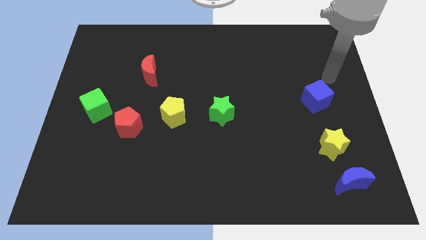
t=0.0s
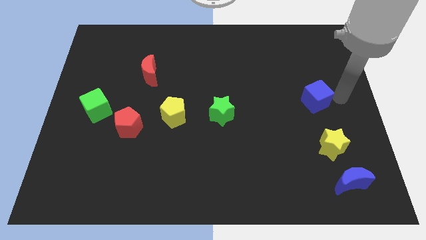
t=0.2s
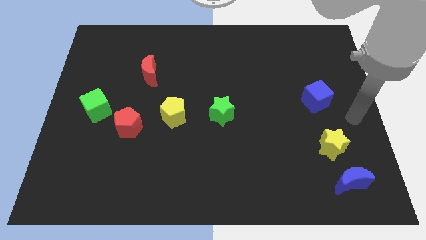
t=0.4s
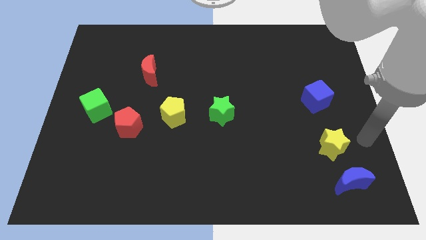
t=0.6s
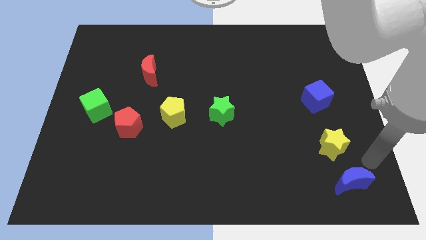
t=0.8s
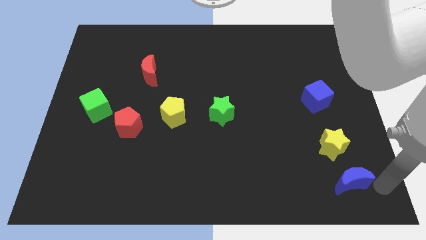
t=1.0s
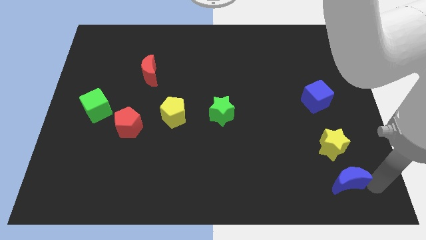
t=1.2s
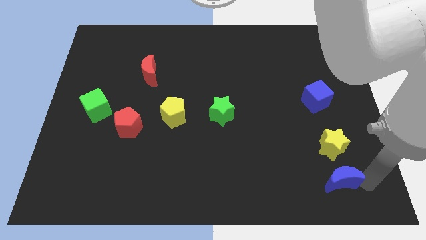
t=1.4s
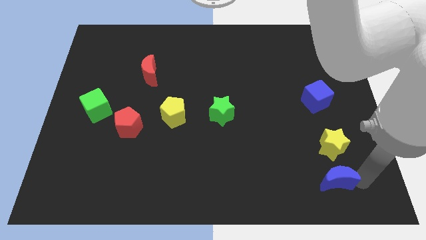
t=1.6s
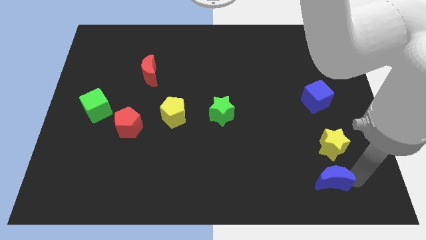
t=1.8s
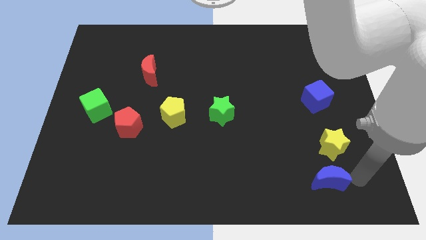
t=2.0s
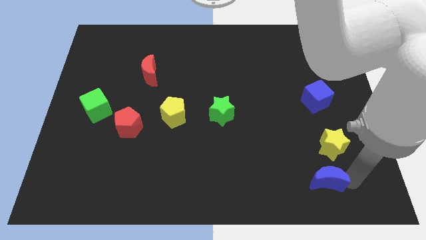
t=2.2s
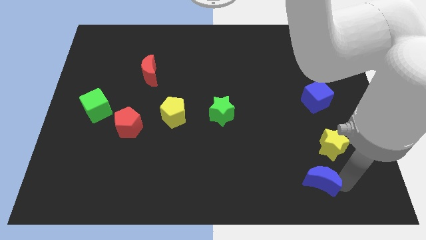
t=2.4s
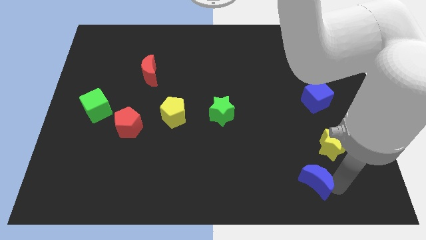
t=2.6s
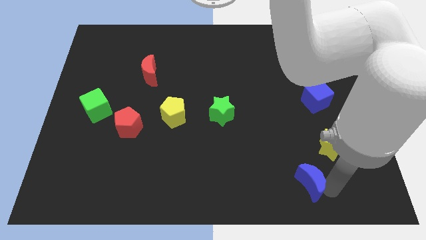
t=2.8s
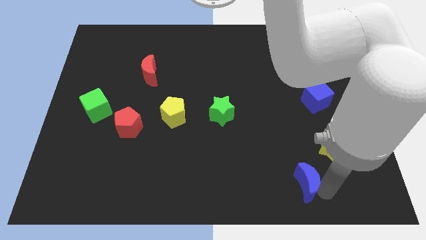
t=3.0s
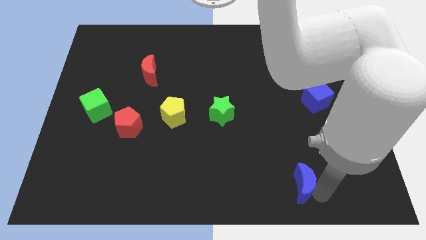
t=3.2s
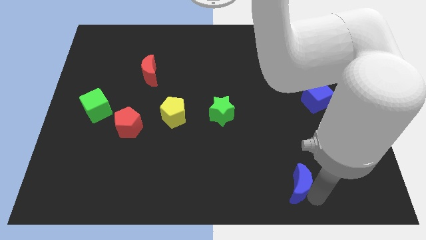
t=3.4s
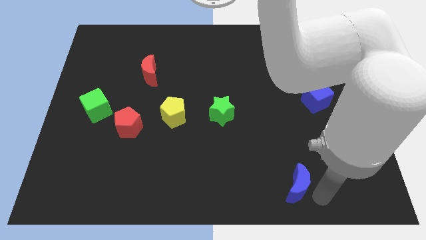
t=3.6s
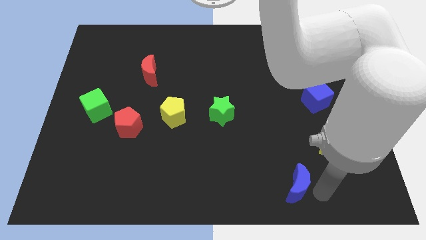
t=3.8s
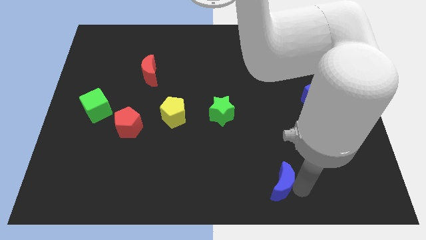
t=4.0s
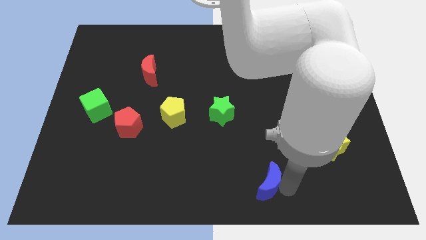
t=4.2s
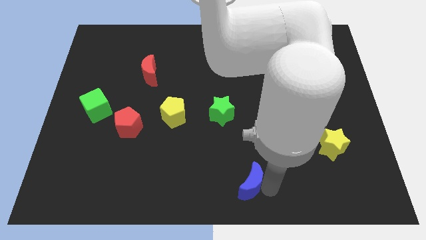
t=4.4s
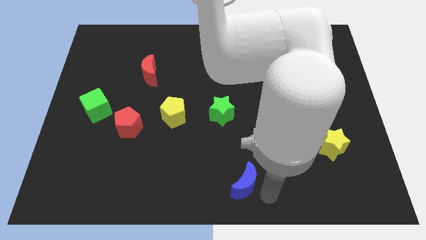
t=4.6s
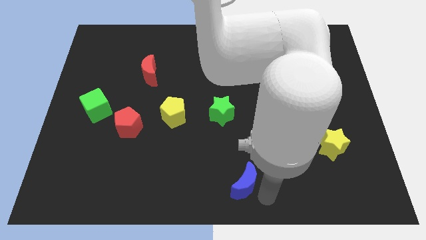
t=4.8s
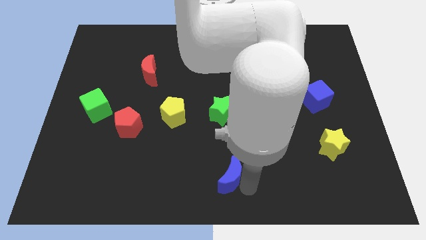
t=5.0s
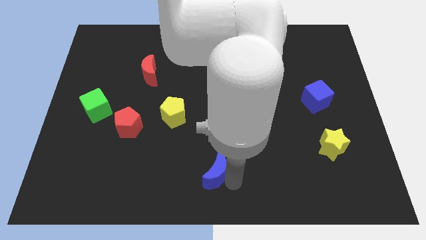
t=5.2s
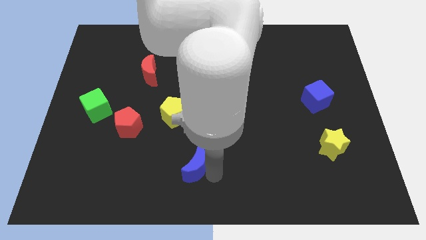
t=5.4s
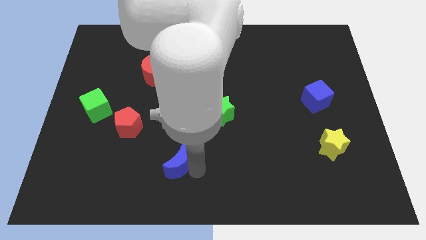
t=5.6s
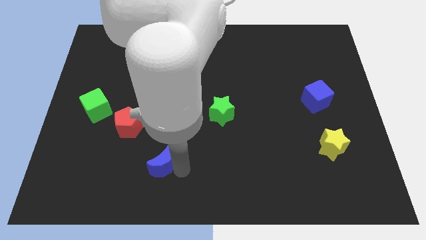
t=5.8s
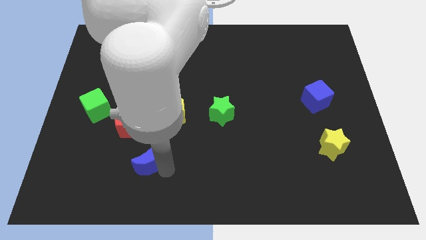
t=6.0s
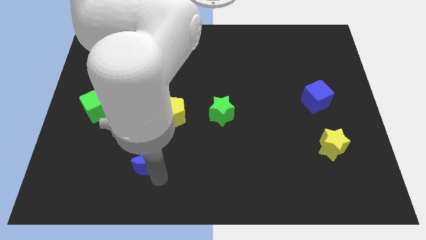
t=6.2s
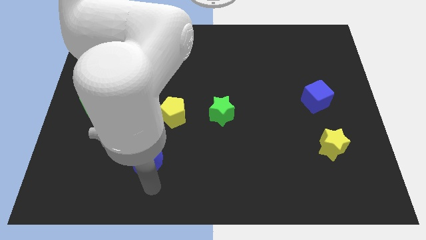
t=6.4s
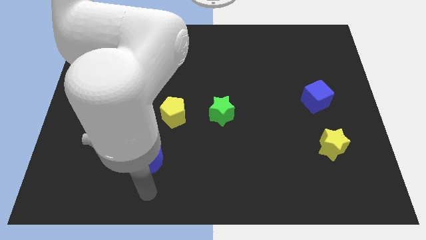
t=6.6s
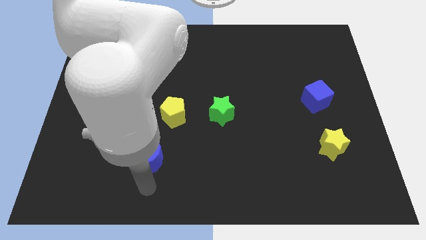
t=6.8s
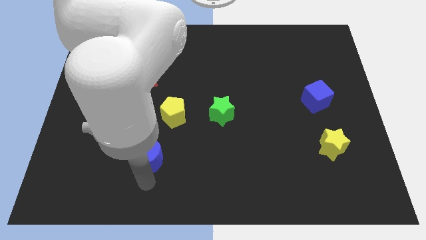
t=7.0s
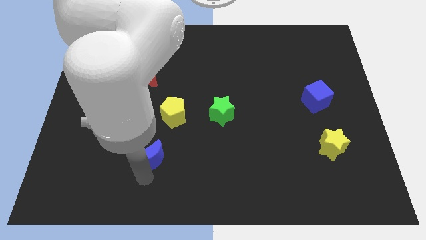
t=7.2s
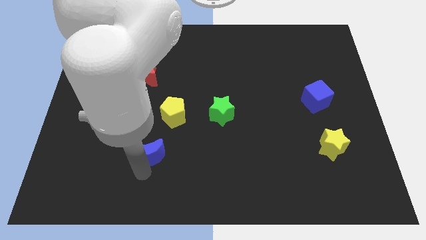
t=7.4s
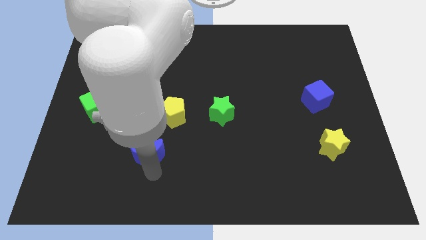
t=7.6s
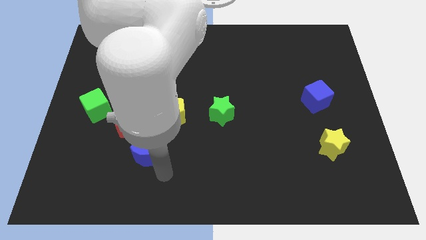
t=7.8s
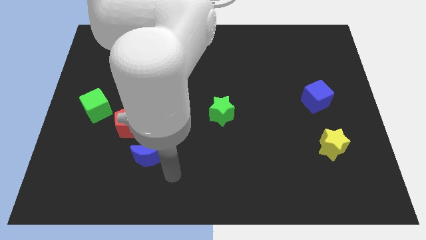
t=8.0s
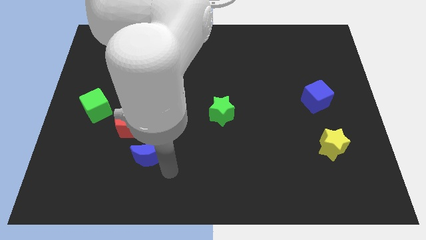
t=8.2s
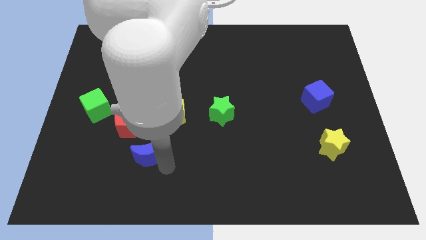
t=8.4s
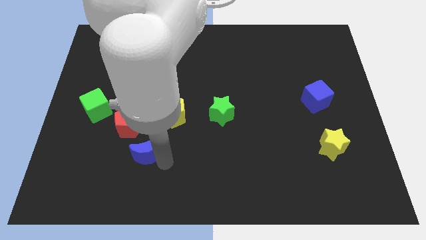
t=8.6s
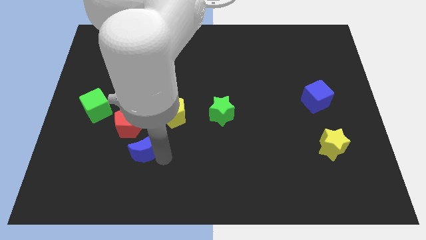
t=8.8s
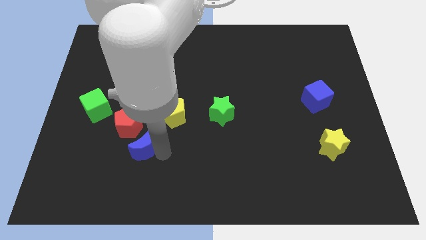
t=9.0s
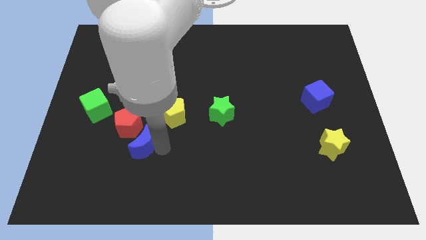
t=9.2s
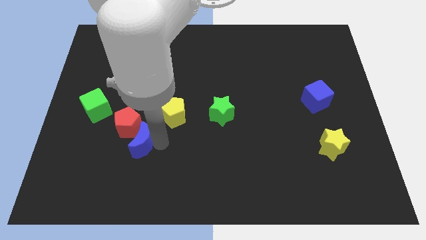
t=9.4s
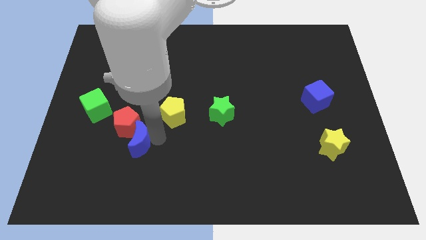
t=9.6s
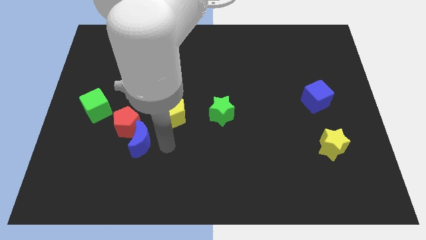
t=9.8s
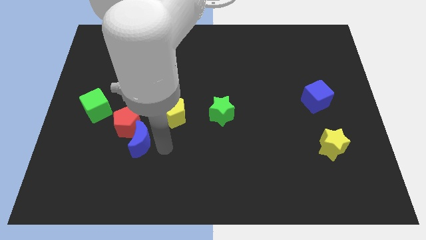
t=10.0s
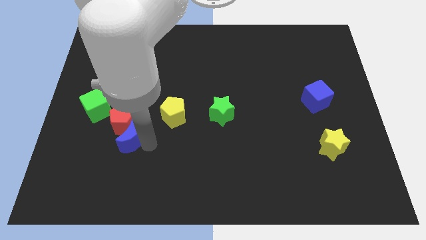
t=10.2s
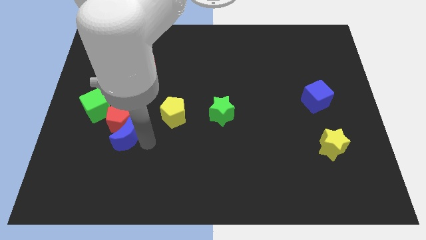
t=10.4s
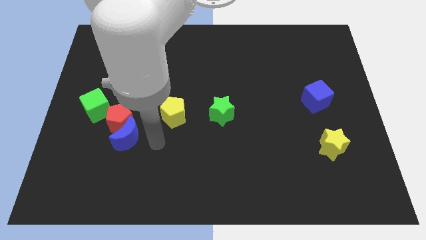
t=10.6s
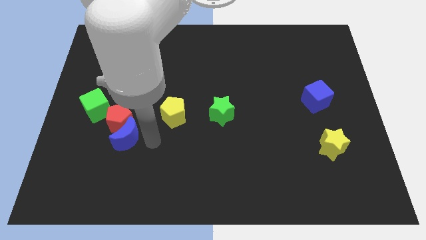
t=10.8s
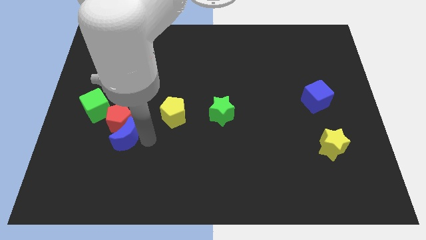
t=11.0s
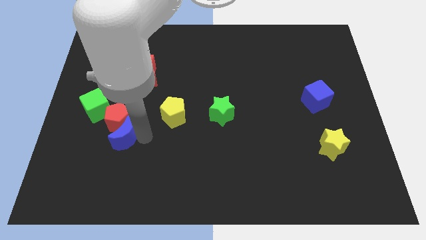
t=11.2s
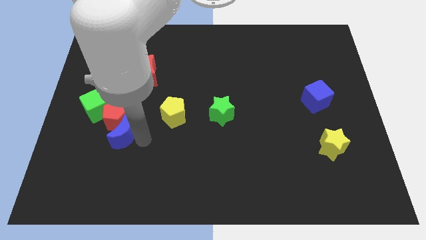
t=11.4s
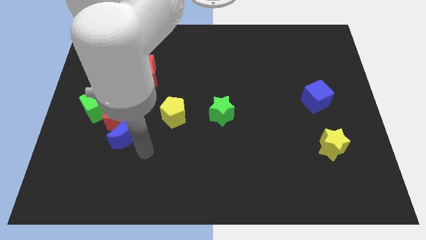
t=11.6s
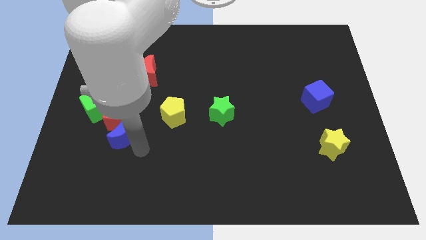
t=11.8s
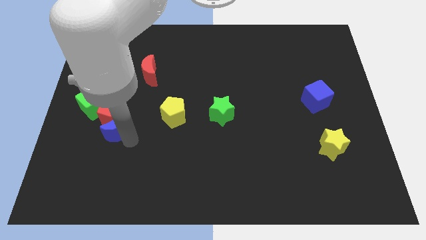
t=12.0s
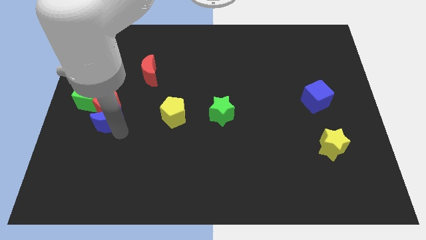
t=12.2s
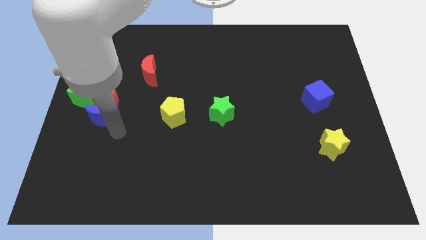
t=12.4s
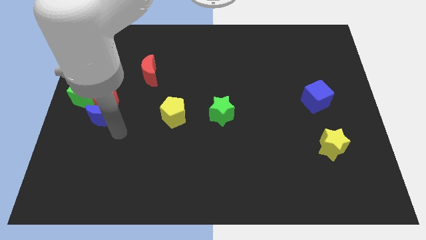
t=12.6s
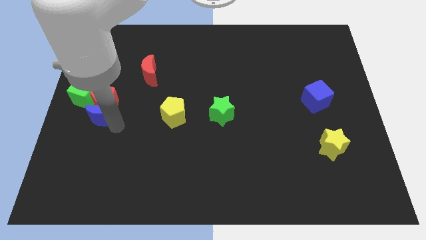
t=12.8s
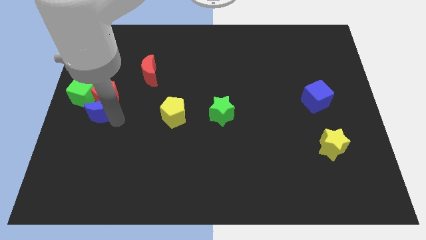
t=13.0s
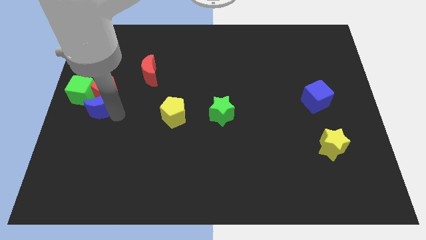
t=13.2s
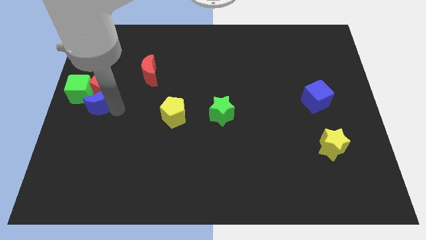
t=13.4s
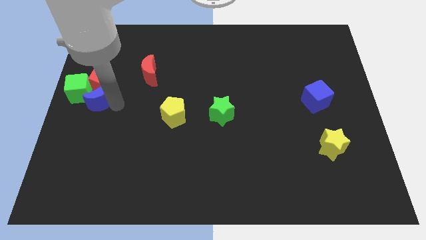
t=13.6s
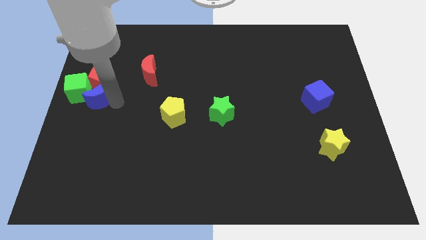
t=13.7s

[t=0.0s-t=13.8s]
slide the blue moon to the green cube
